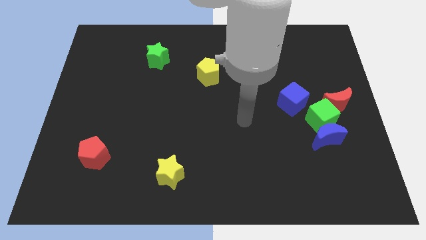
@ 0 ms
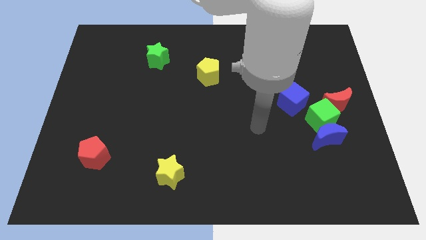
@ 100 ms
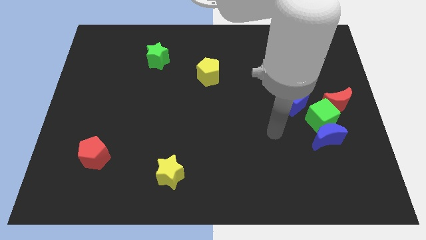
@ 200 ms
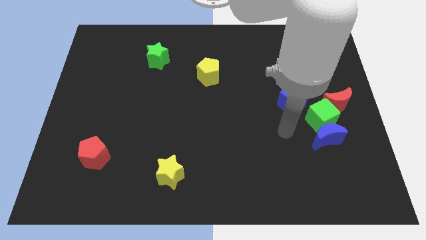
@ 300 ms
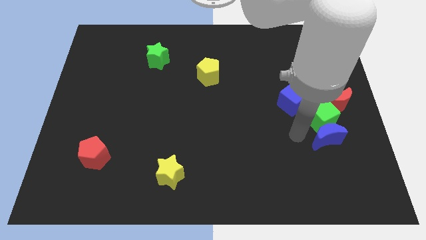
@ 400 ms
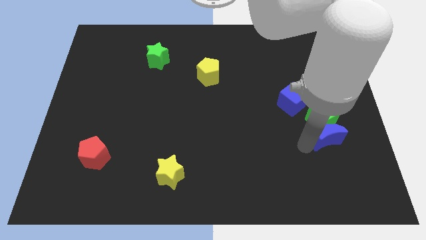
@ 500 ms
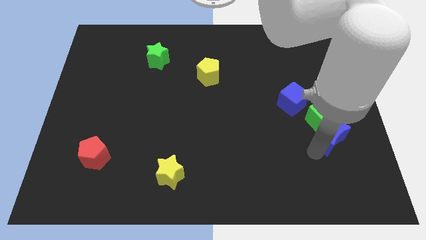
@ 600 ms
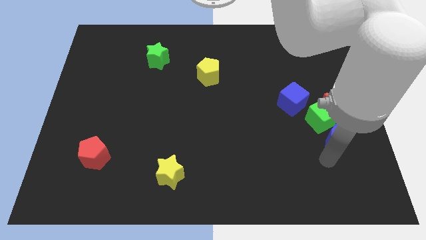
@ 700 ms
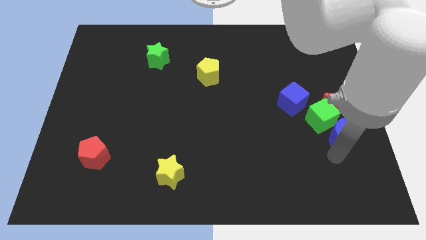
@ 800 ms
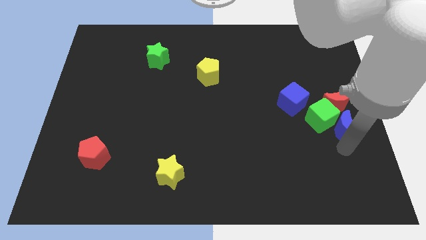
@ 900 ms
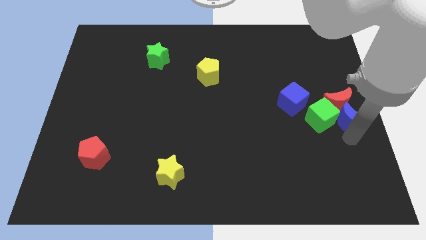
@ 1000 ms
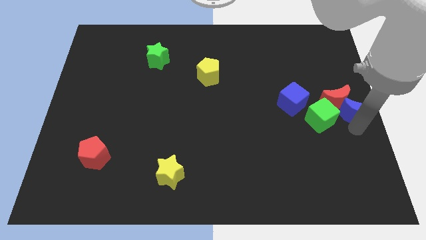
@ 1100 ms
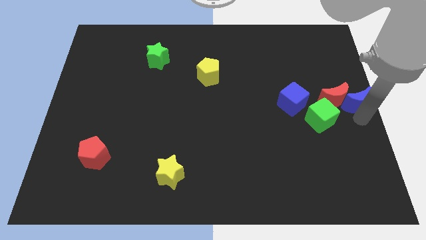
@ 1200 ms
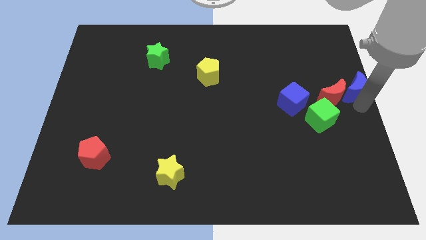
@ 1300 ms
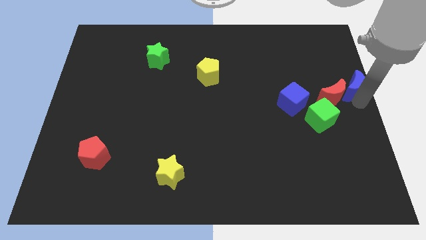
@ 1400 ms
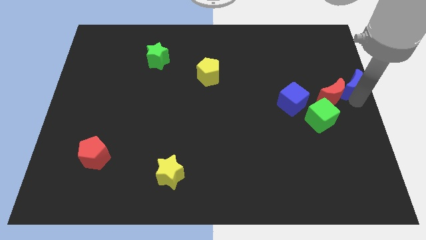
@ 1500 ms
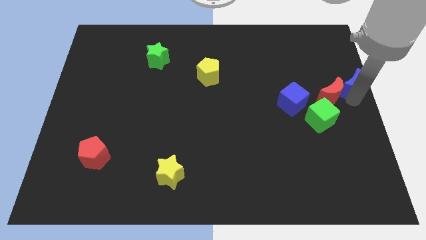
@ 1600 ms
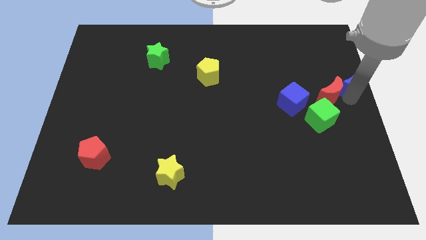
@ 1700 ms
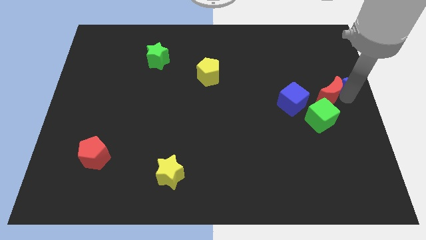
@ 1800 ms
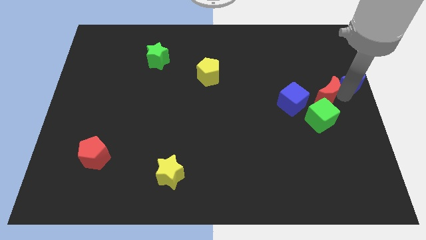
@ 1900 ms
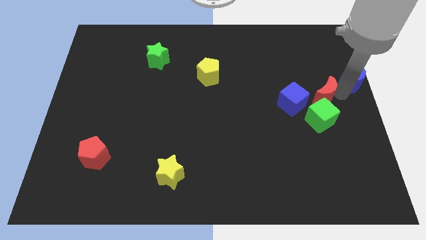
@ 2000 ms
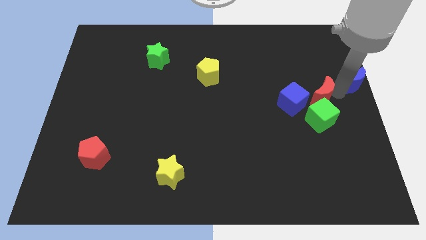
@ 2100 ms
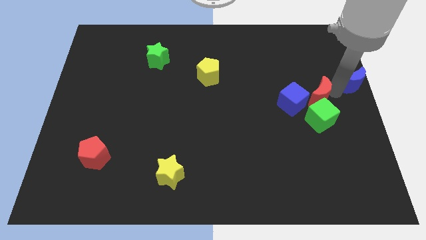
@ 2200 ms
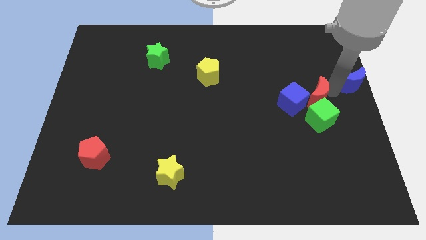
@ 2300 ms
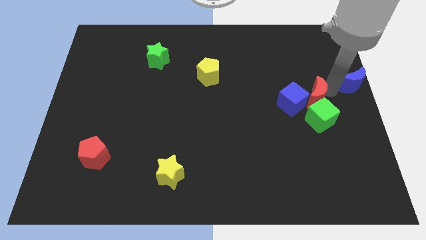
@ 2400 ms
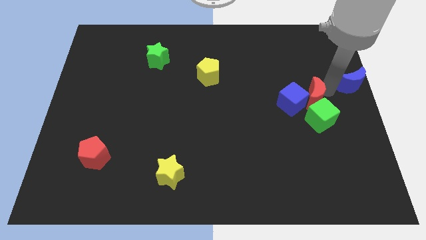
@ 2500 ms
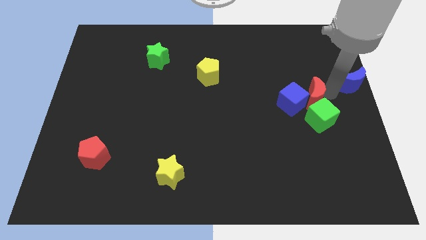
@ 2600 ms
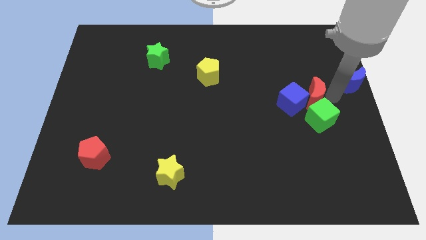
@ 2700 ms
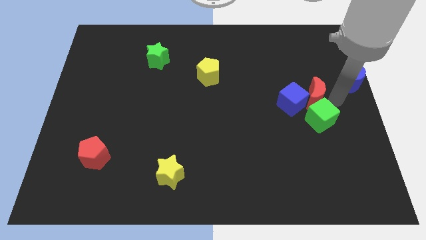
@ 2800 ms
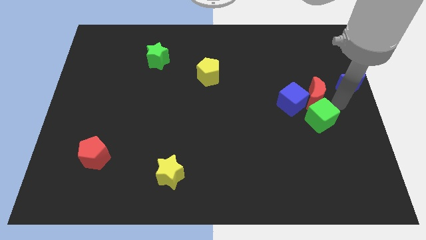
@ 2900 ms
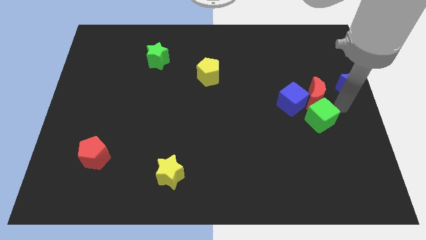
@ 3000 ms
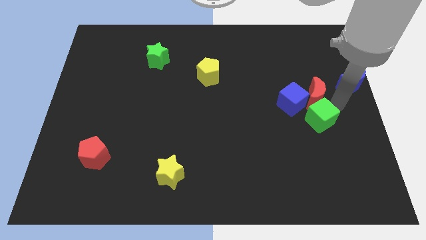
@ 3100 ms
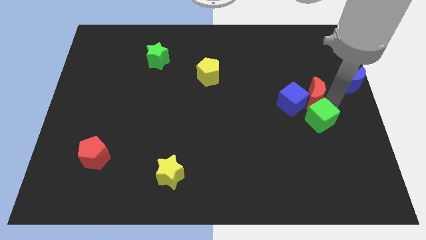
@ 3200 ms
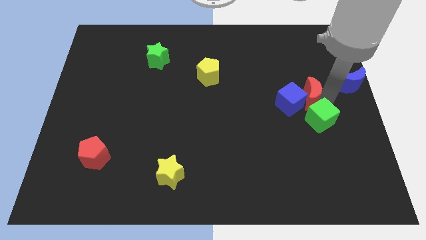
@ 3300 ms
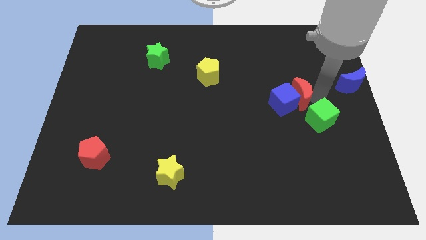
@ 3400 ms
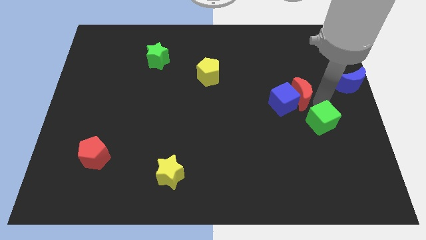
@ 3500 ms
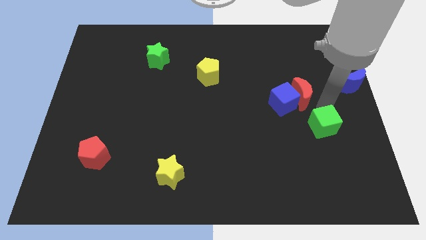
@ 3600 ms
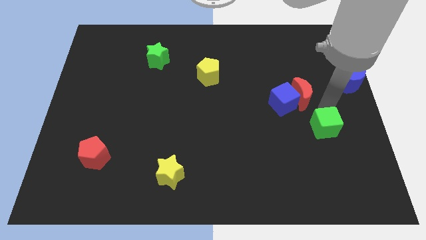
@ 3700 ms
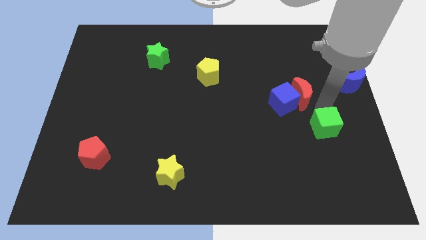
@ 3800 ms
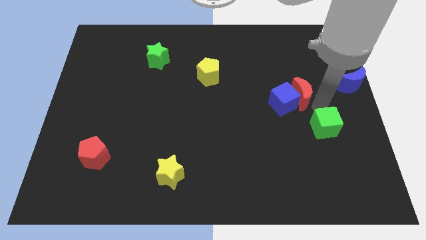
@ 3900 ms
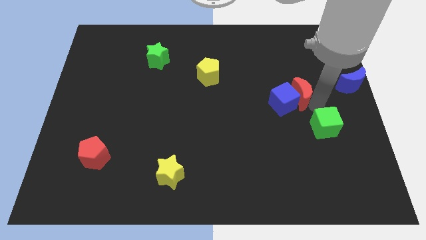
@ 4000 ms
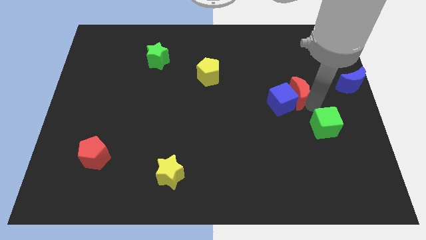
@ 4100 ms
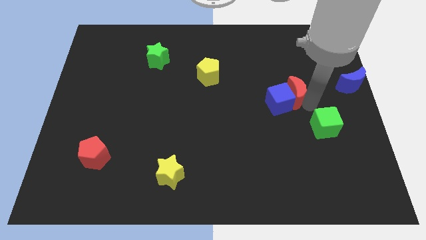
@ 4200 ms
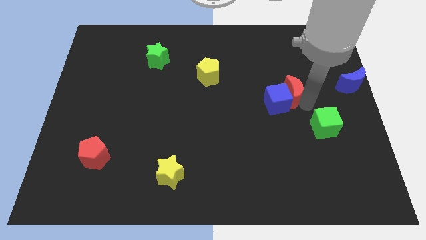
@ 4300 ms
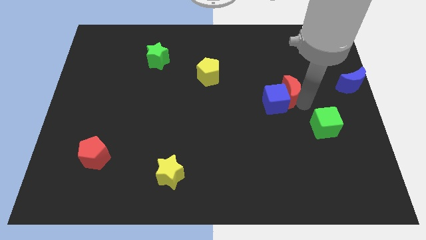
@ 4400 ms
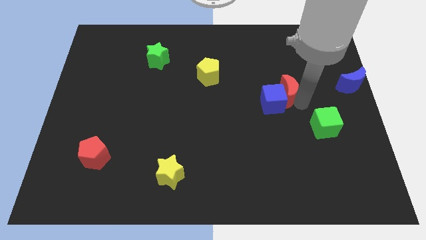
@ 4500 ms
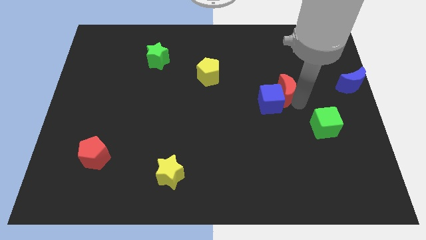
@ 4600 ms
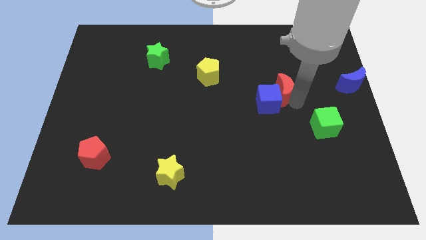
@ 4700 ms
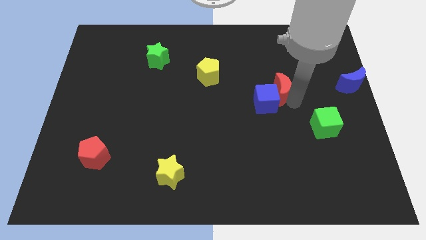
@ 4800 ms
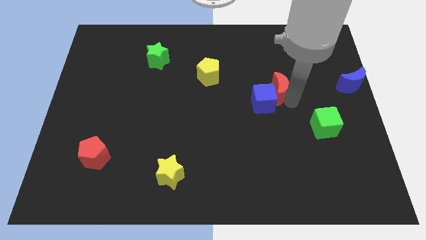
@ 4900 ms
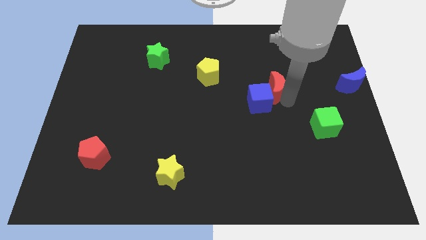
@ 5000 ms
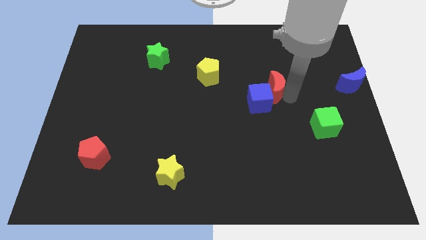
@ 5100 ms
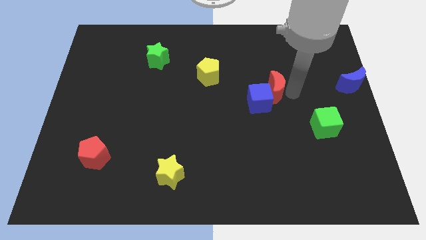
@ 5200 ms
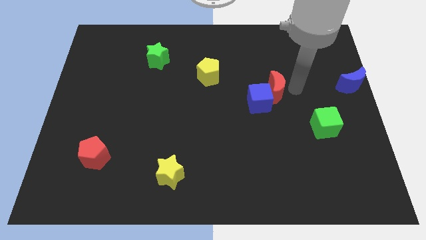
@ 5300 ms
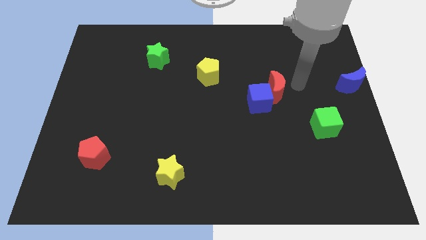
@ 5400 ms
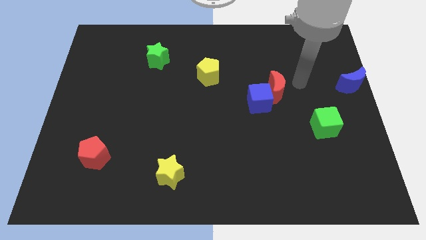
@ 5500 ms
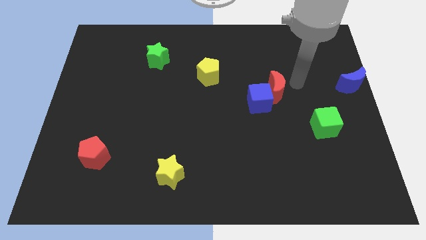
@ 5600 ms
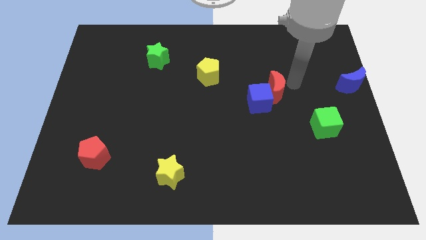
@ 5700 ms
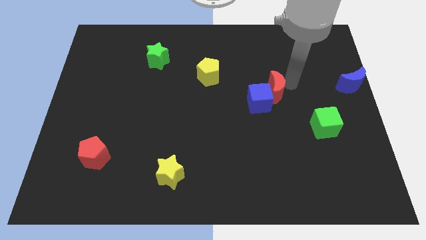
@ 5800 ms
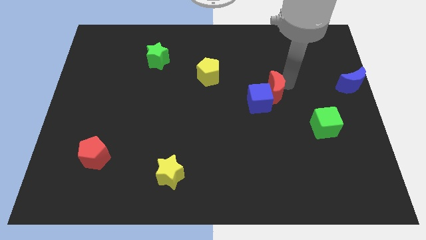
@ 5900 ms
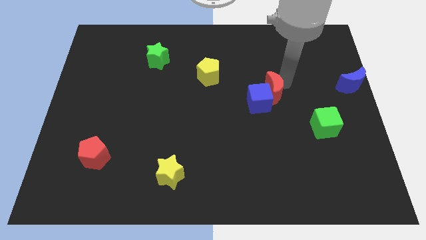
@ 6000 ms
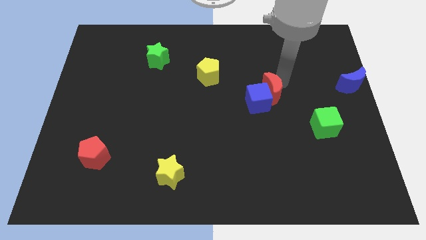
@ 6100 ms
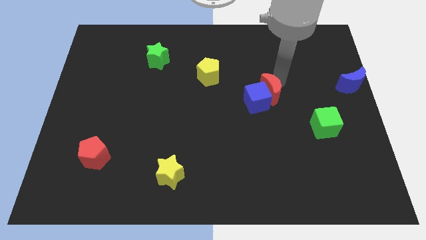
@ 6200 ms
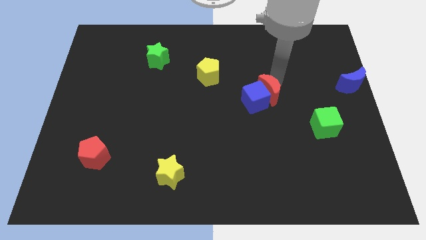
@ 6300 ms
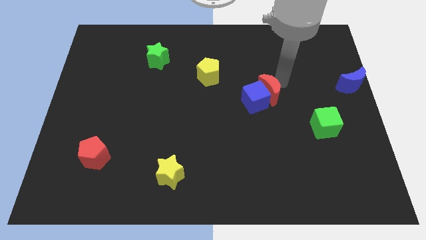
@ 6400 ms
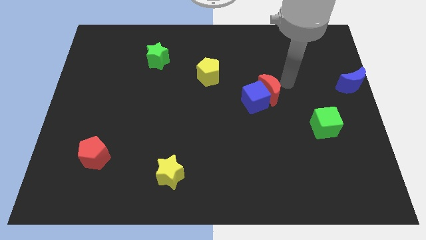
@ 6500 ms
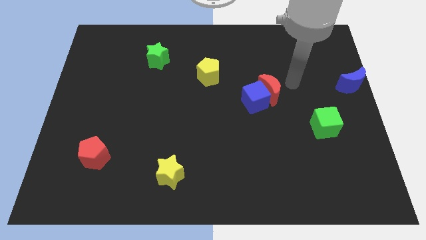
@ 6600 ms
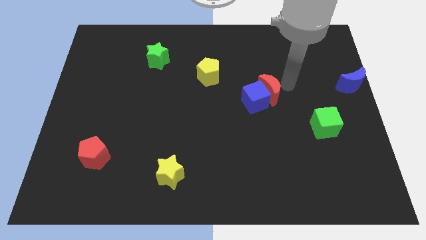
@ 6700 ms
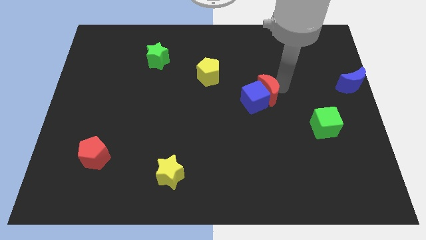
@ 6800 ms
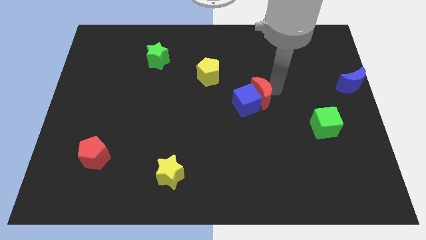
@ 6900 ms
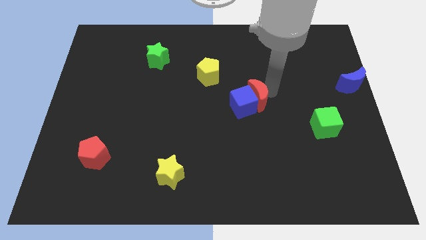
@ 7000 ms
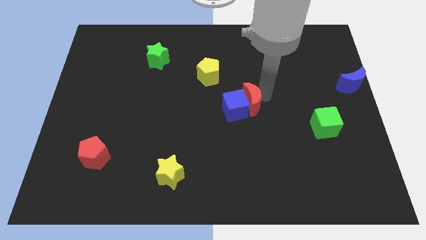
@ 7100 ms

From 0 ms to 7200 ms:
push the red moon to the left

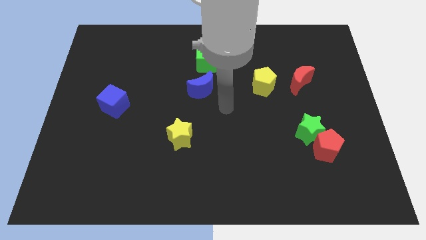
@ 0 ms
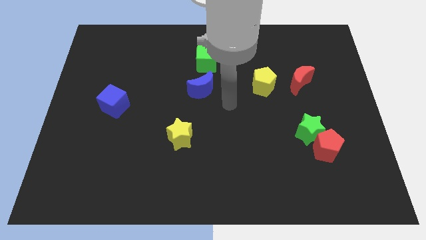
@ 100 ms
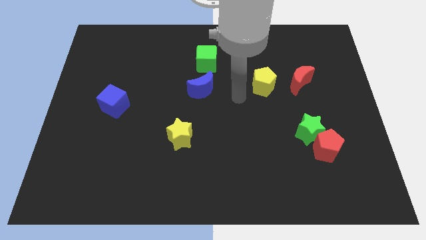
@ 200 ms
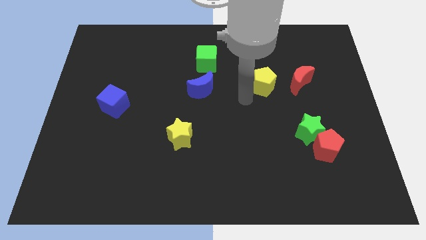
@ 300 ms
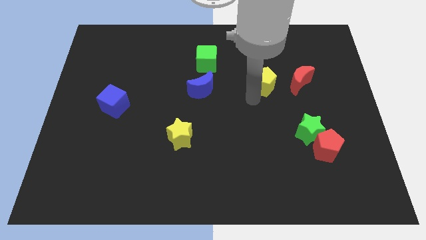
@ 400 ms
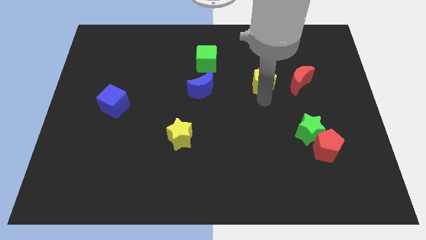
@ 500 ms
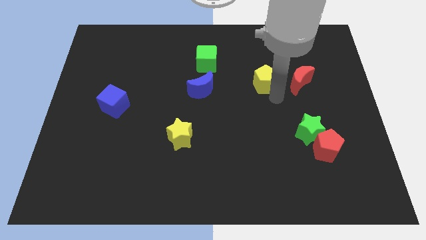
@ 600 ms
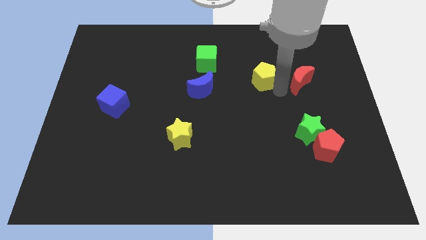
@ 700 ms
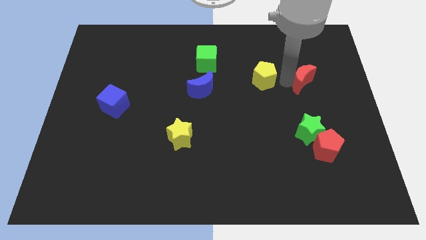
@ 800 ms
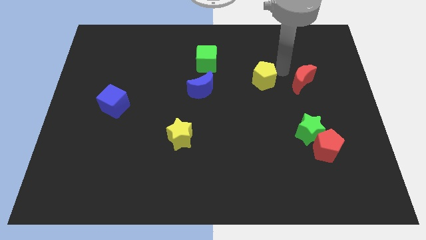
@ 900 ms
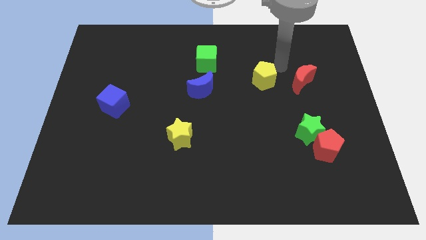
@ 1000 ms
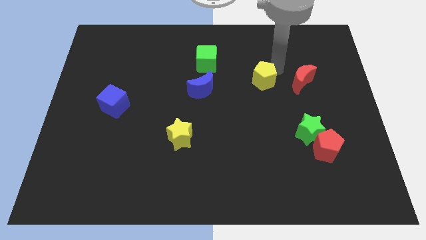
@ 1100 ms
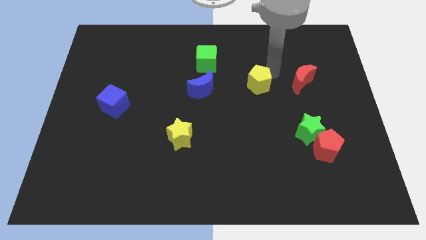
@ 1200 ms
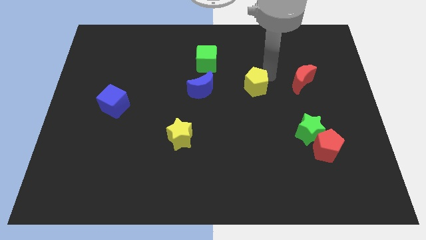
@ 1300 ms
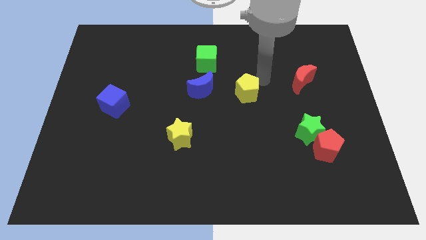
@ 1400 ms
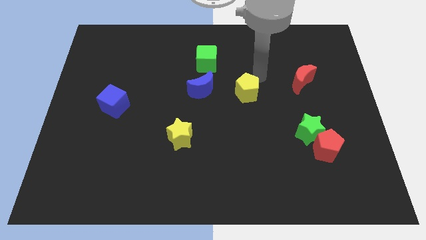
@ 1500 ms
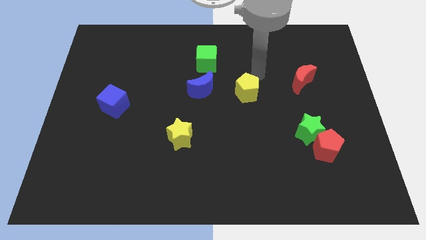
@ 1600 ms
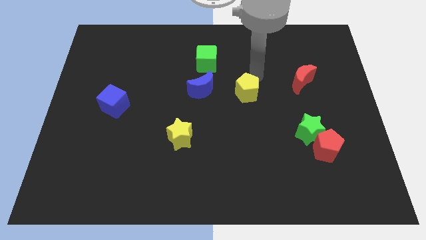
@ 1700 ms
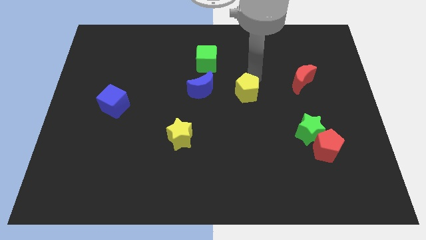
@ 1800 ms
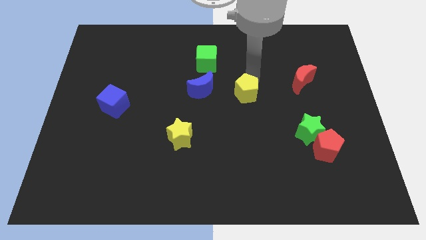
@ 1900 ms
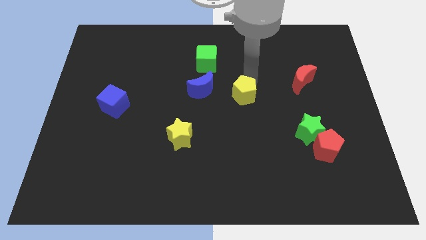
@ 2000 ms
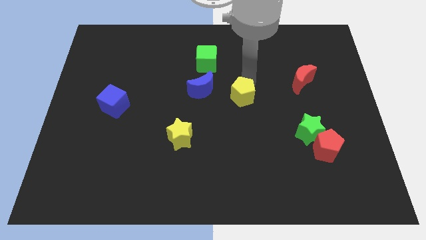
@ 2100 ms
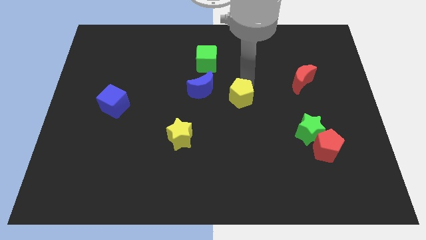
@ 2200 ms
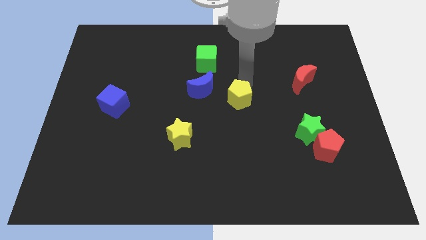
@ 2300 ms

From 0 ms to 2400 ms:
slightly push the yellow pentagon downwards and to the left
